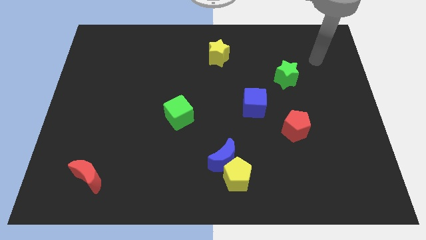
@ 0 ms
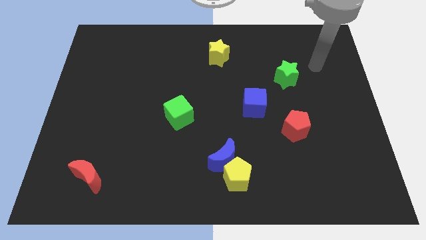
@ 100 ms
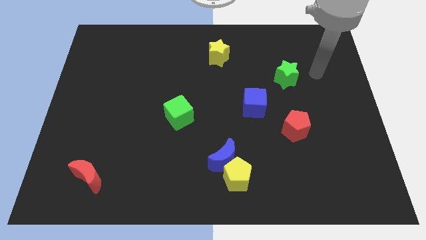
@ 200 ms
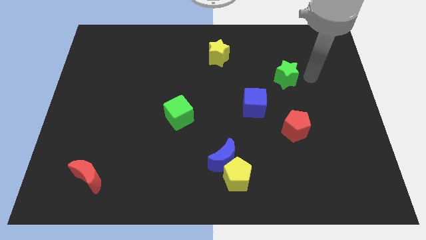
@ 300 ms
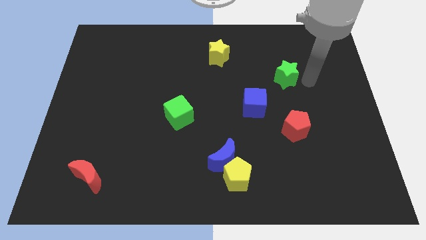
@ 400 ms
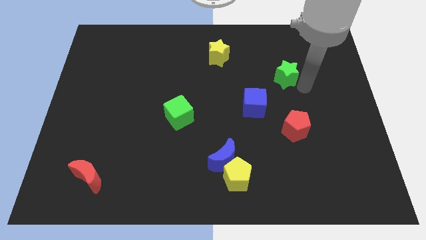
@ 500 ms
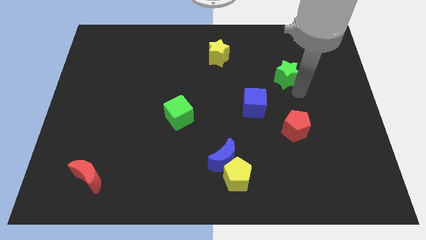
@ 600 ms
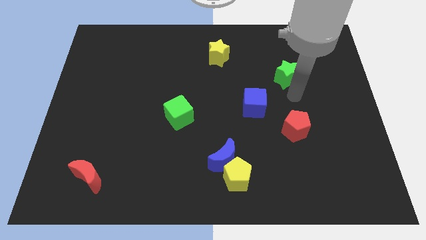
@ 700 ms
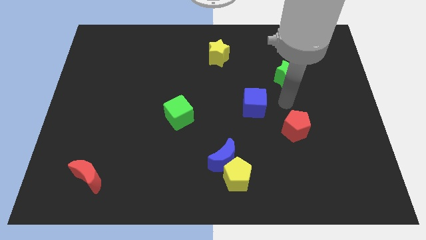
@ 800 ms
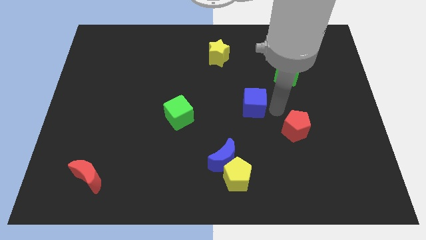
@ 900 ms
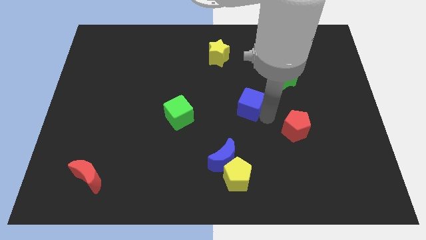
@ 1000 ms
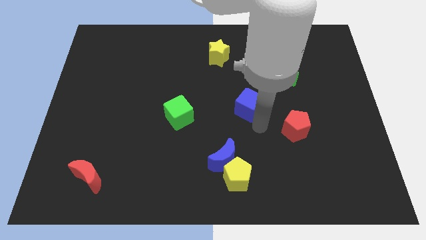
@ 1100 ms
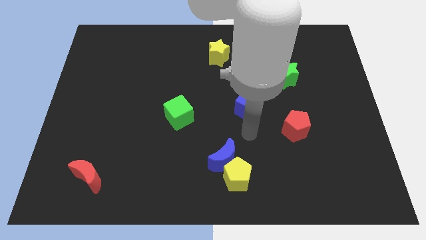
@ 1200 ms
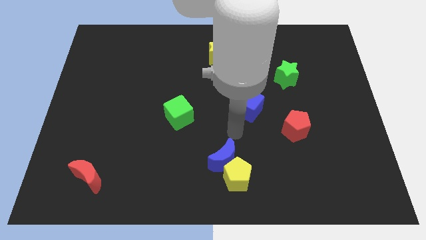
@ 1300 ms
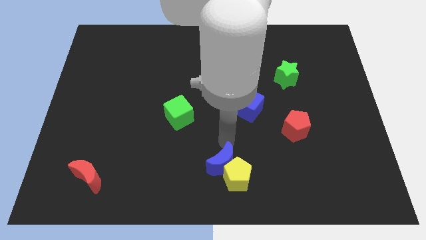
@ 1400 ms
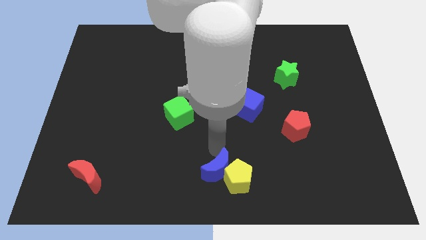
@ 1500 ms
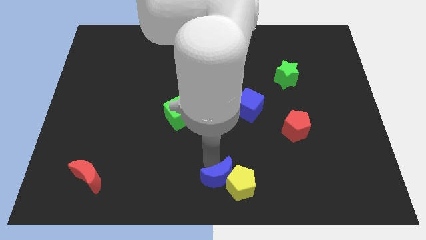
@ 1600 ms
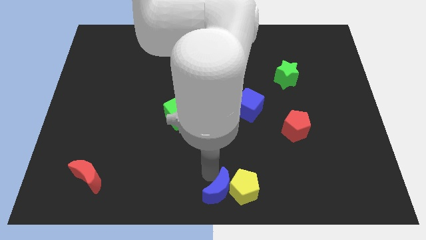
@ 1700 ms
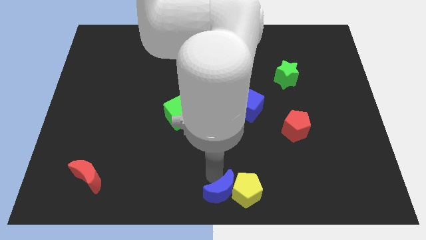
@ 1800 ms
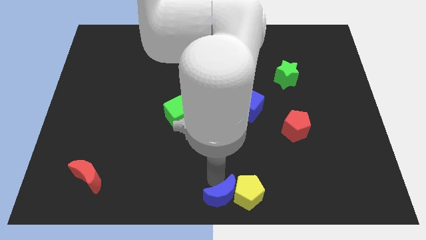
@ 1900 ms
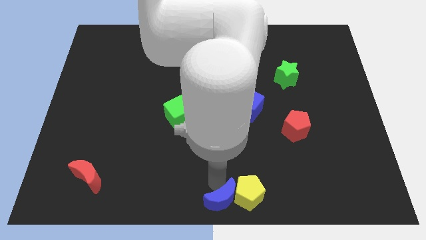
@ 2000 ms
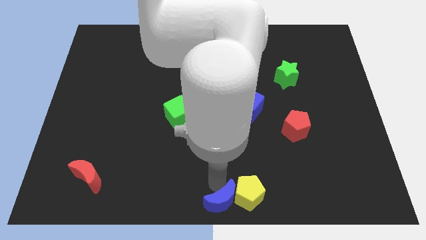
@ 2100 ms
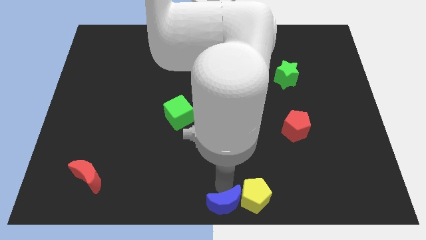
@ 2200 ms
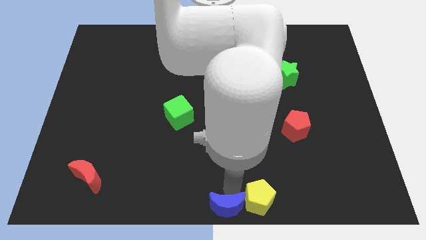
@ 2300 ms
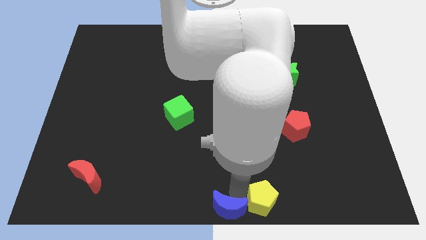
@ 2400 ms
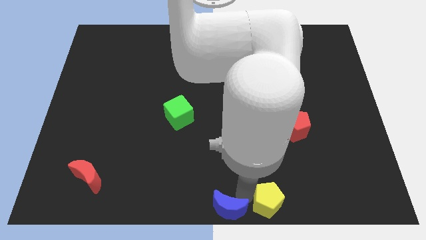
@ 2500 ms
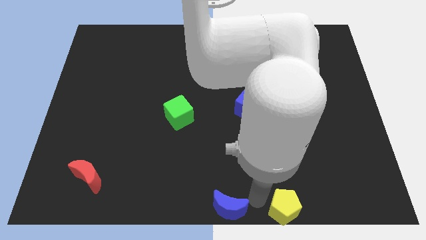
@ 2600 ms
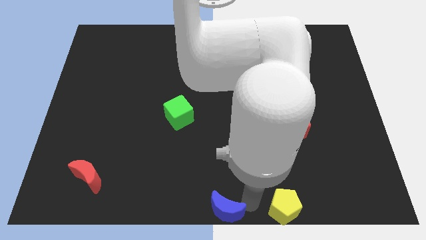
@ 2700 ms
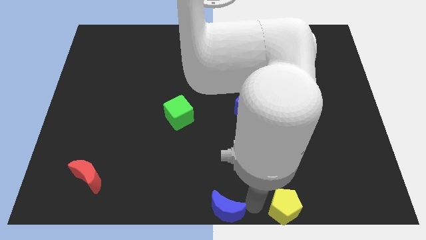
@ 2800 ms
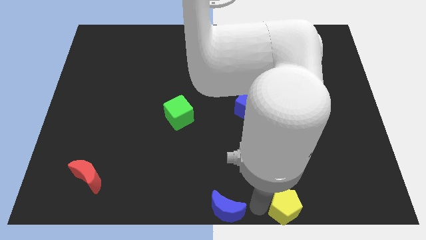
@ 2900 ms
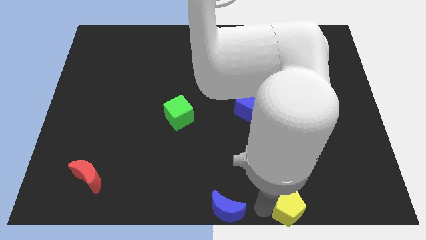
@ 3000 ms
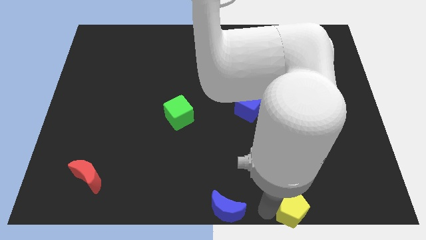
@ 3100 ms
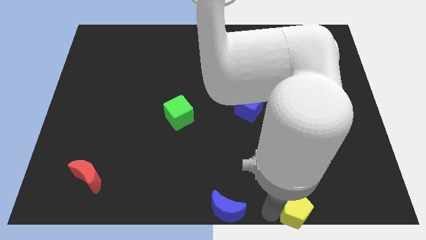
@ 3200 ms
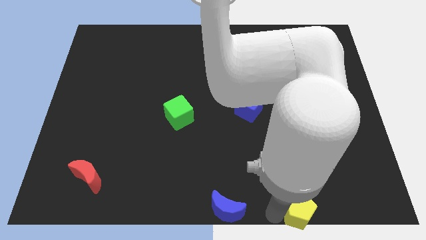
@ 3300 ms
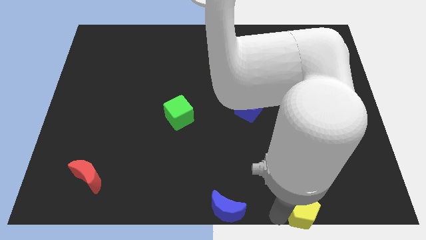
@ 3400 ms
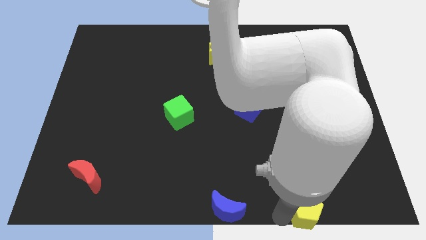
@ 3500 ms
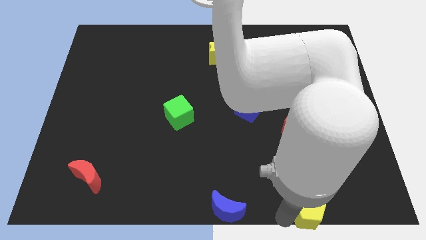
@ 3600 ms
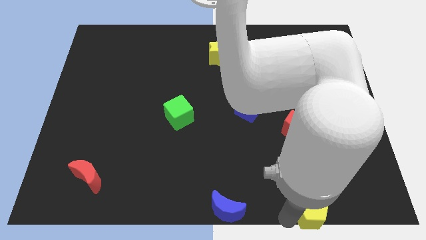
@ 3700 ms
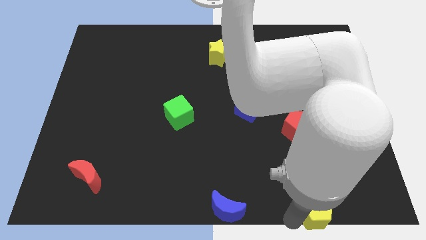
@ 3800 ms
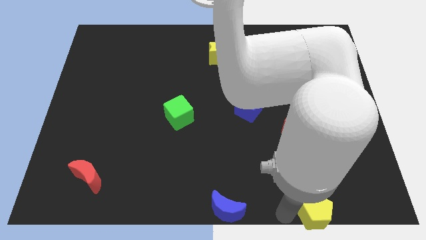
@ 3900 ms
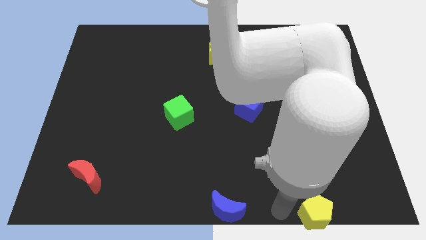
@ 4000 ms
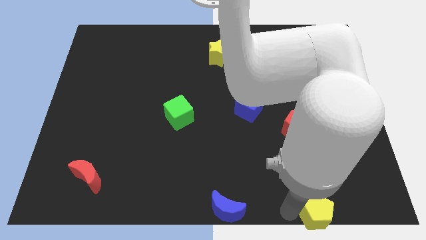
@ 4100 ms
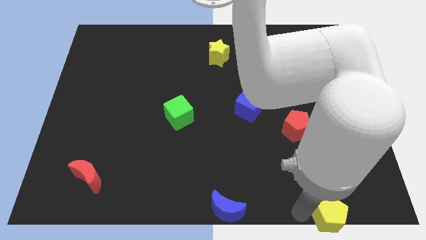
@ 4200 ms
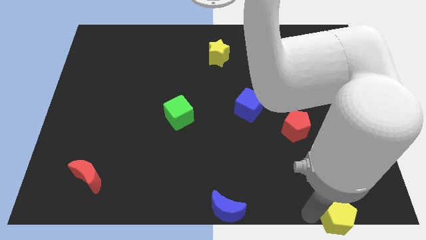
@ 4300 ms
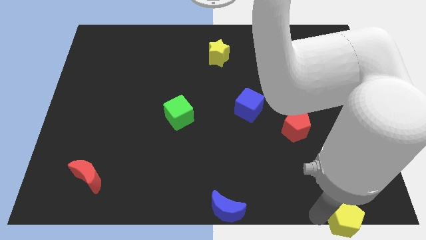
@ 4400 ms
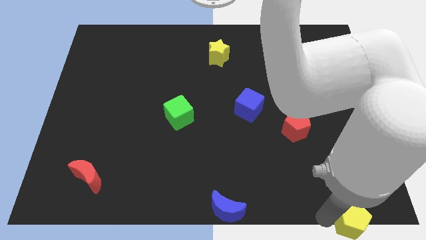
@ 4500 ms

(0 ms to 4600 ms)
move the yellow pentagon to the bottom right

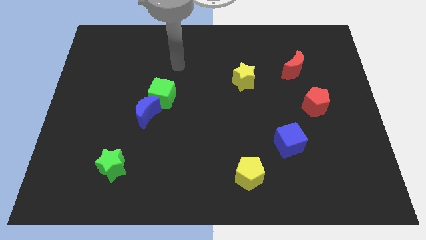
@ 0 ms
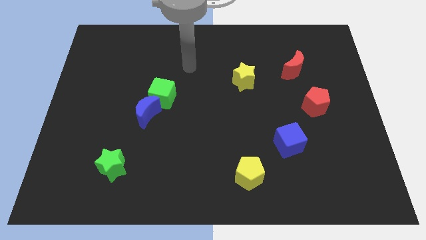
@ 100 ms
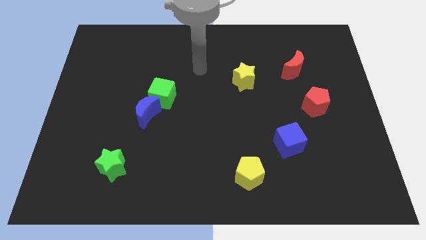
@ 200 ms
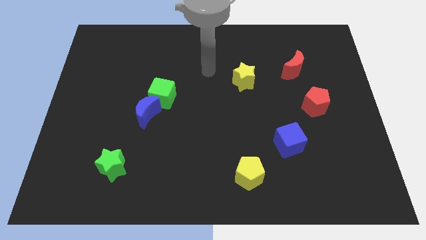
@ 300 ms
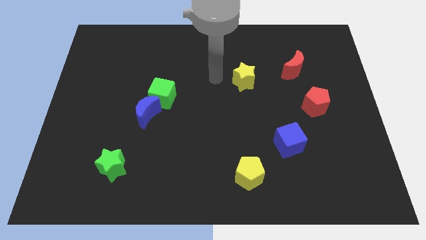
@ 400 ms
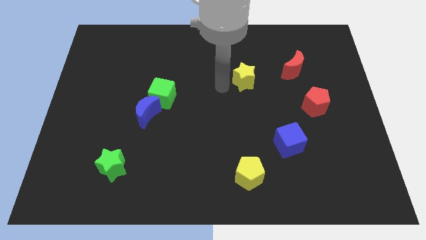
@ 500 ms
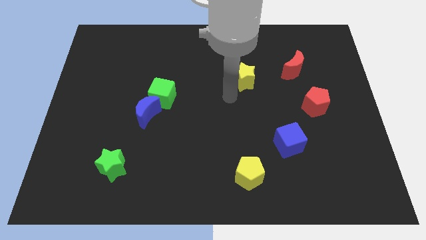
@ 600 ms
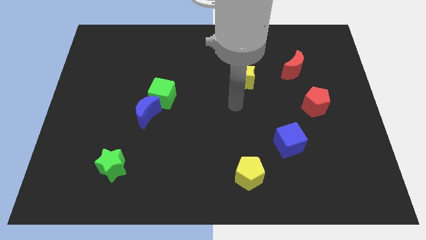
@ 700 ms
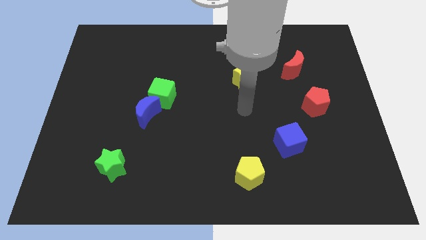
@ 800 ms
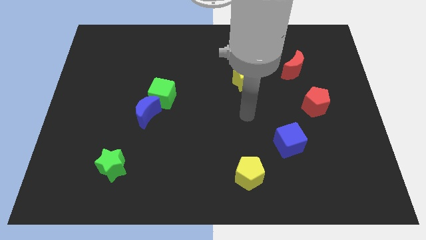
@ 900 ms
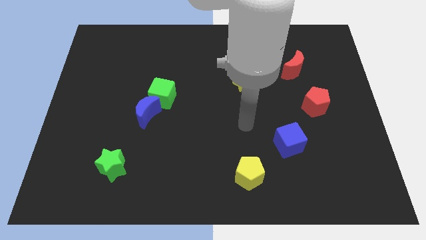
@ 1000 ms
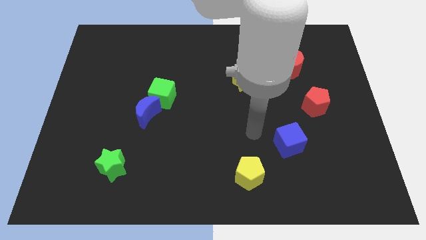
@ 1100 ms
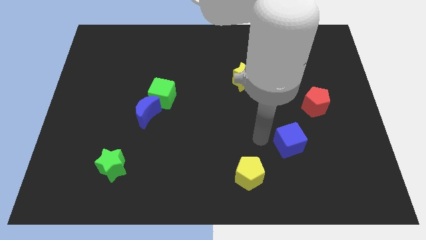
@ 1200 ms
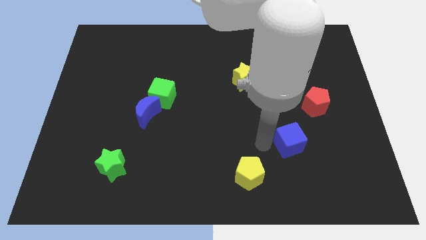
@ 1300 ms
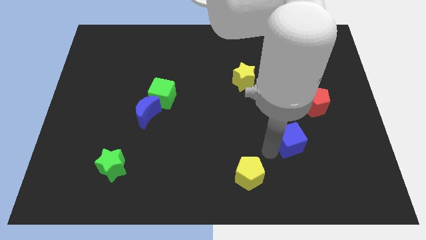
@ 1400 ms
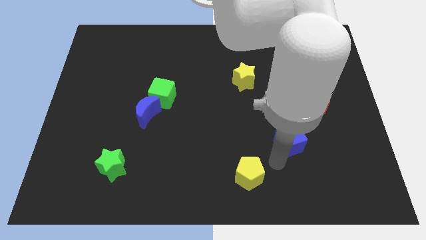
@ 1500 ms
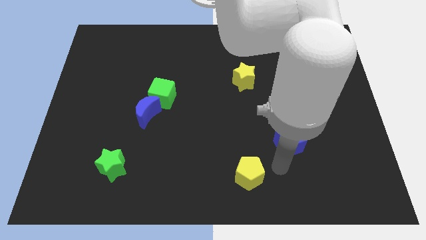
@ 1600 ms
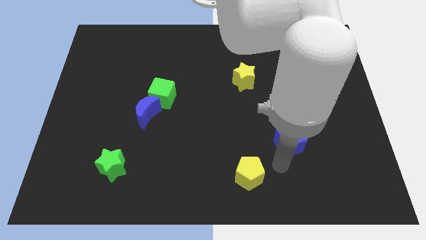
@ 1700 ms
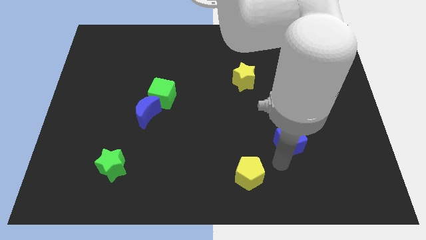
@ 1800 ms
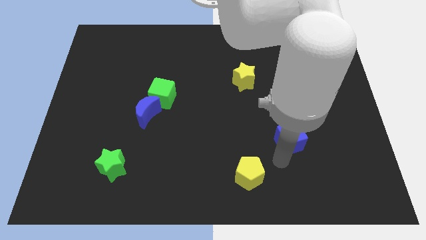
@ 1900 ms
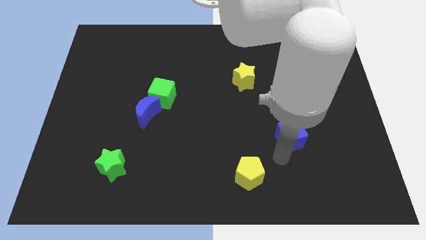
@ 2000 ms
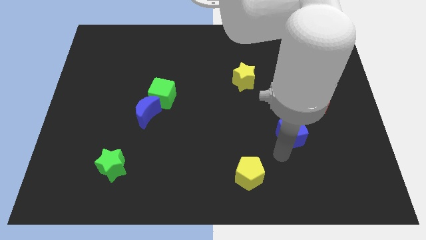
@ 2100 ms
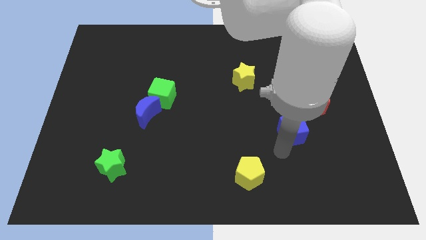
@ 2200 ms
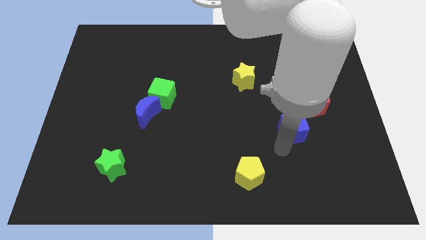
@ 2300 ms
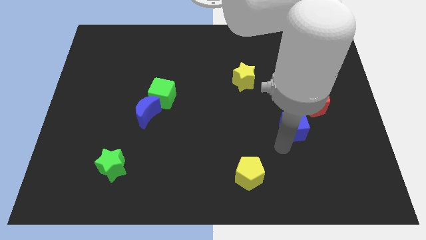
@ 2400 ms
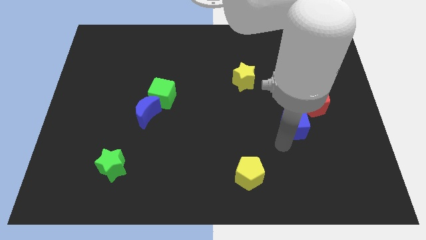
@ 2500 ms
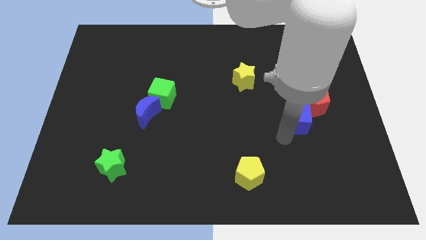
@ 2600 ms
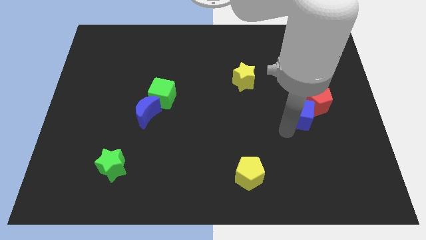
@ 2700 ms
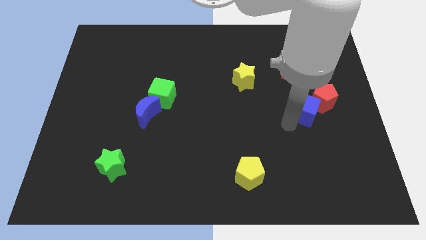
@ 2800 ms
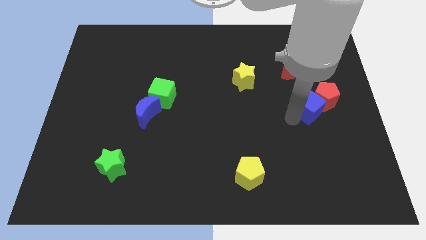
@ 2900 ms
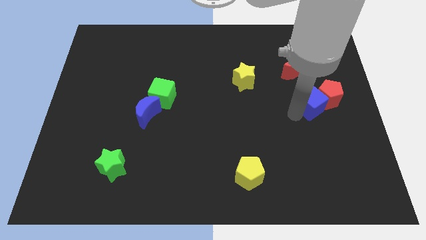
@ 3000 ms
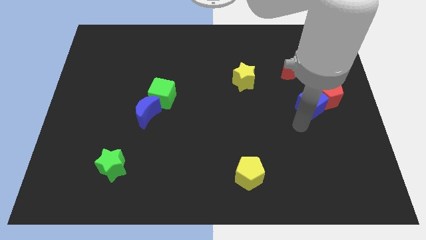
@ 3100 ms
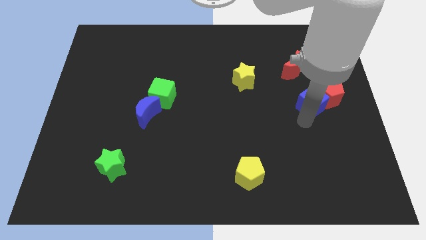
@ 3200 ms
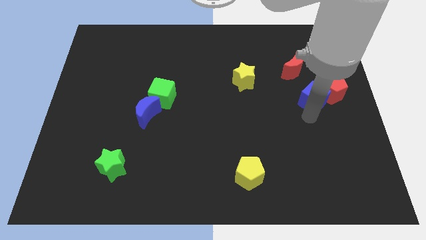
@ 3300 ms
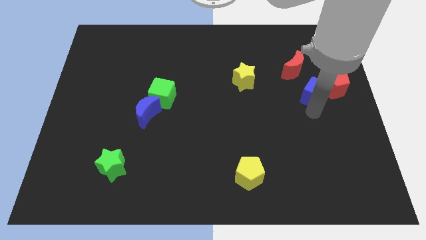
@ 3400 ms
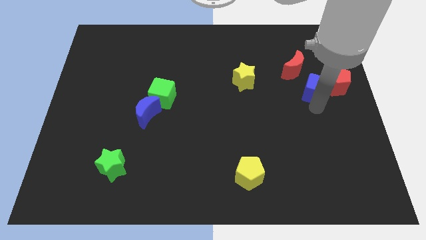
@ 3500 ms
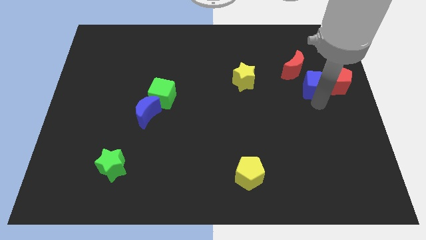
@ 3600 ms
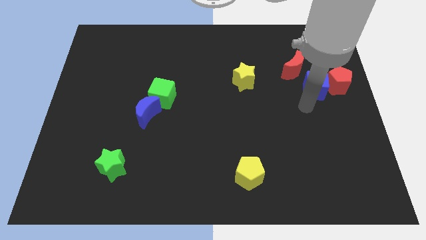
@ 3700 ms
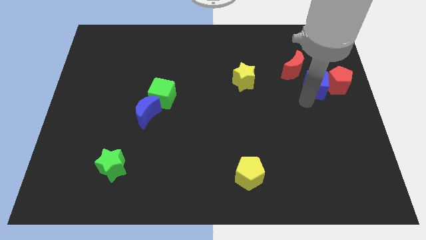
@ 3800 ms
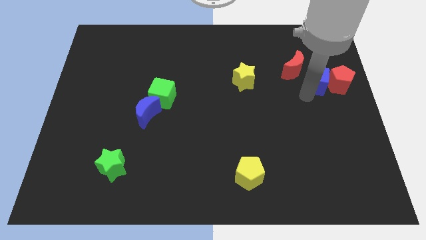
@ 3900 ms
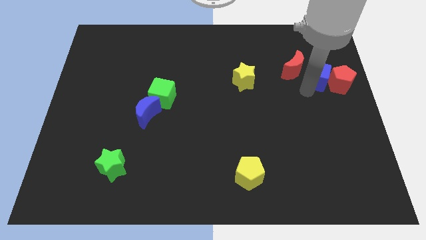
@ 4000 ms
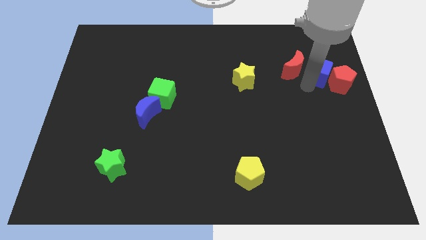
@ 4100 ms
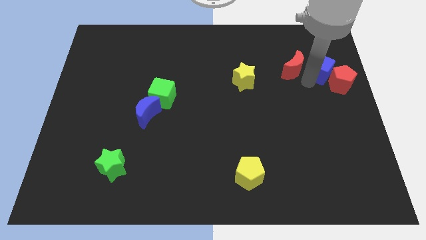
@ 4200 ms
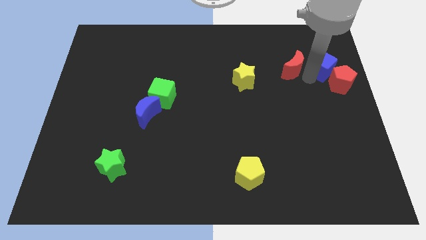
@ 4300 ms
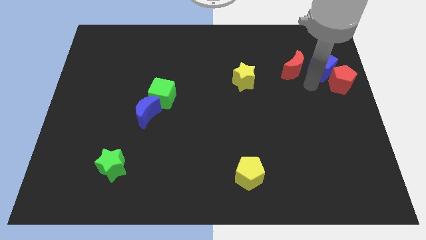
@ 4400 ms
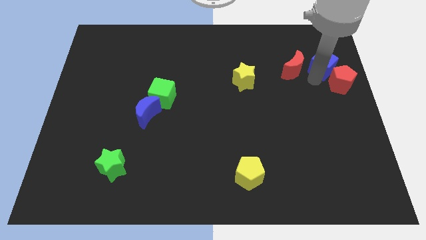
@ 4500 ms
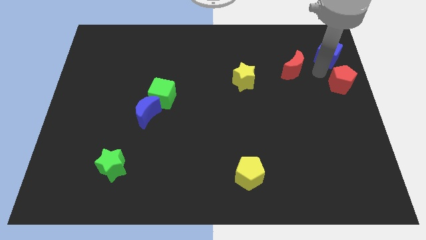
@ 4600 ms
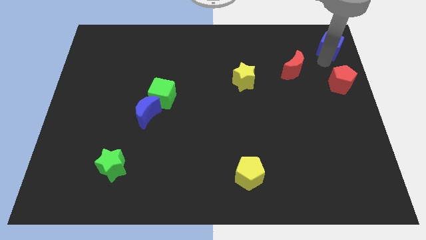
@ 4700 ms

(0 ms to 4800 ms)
move the blue cube to the top right of the board
